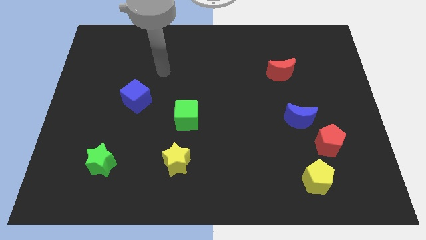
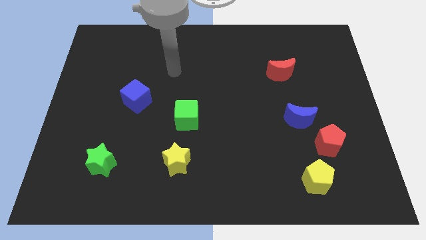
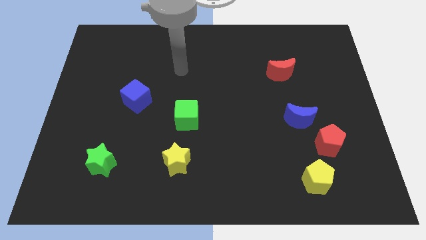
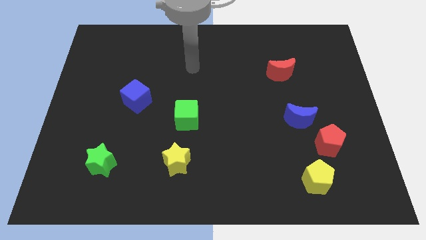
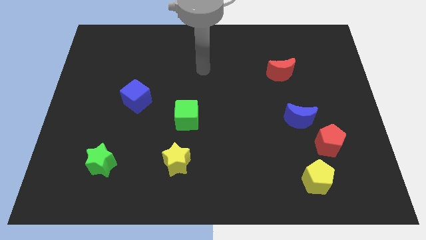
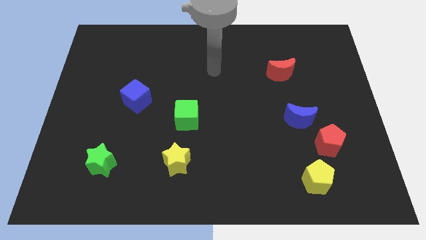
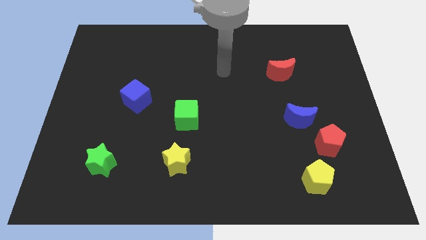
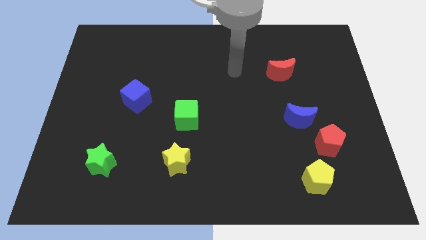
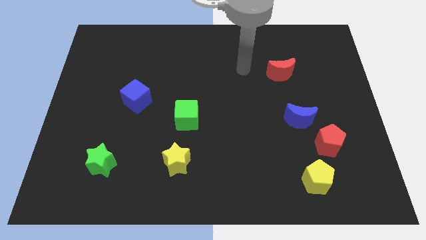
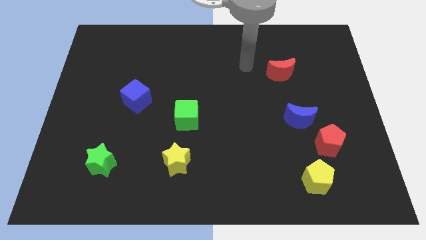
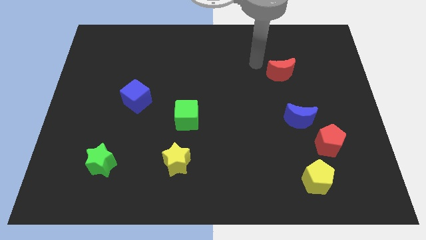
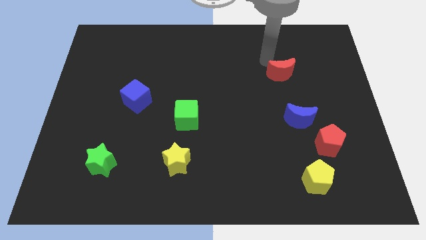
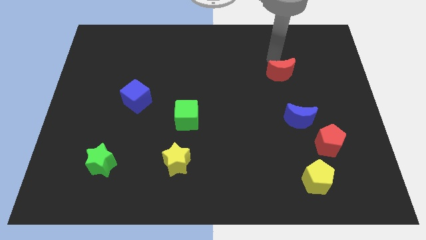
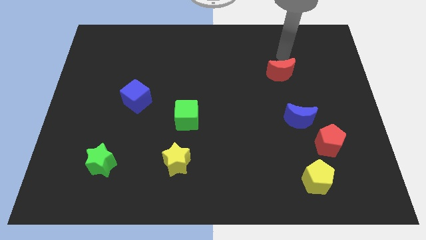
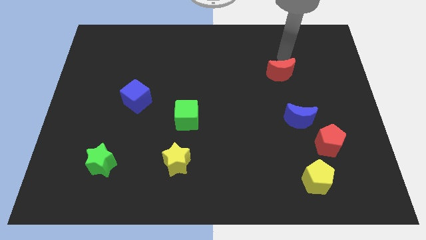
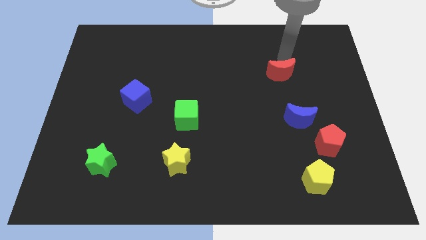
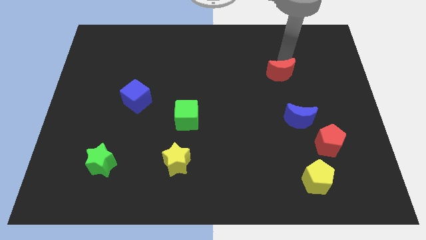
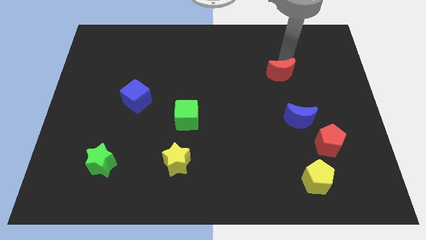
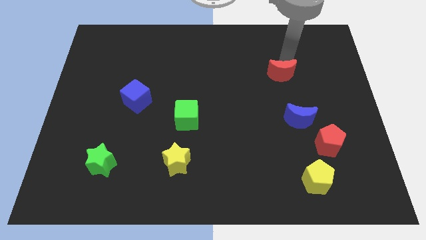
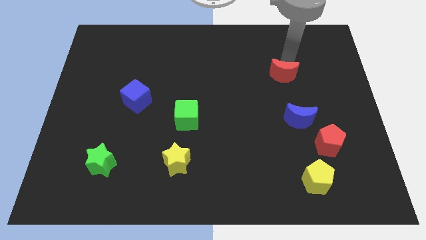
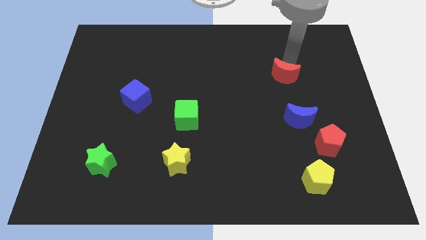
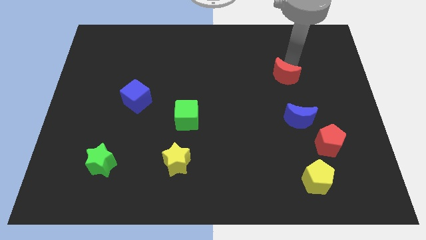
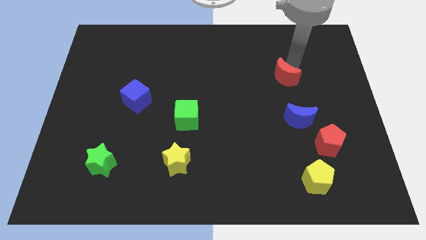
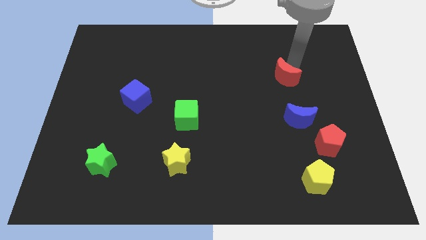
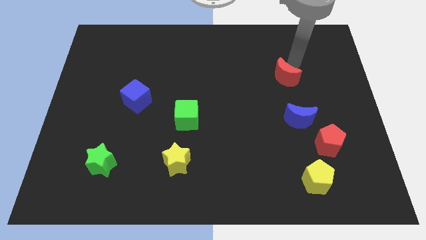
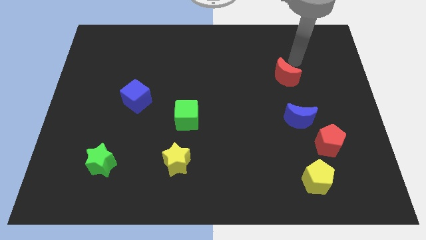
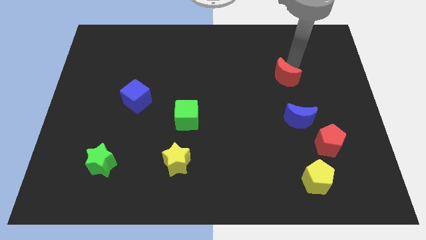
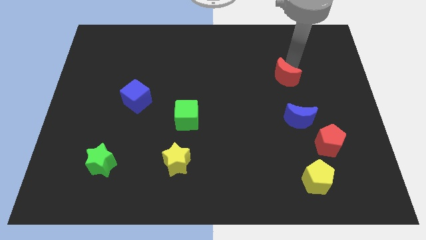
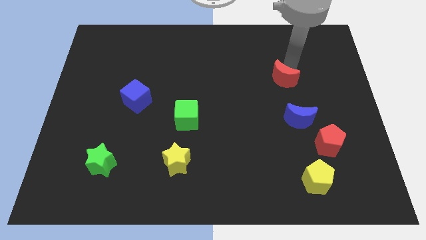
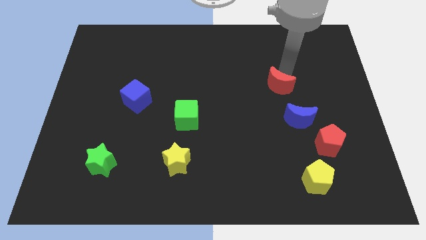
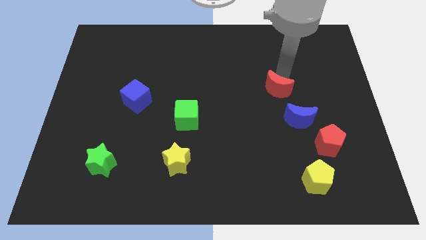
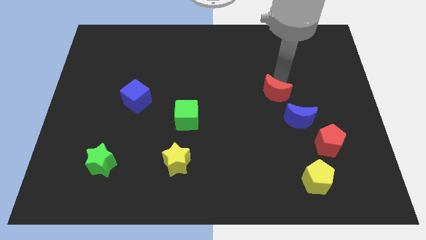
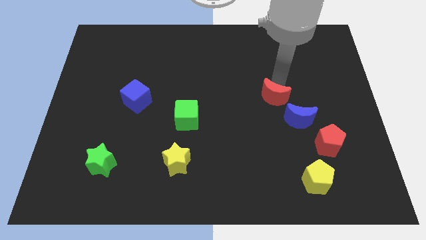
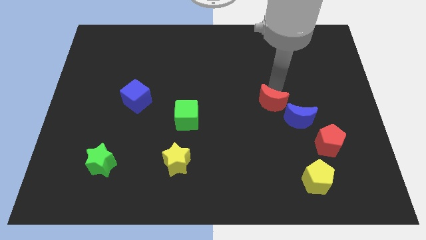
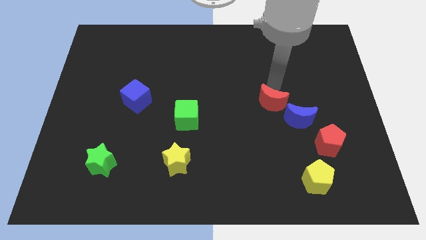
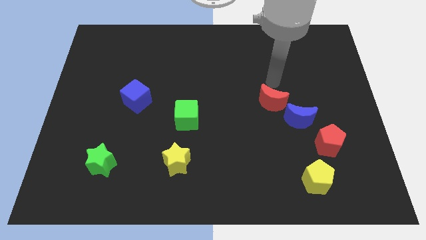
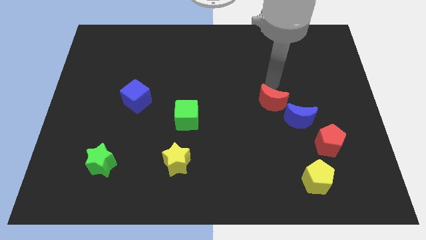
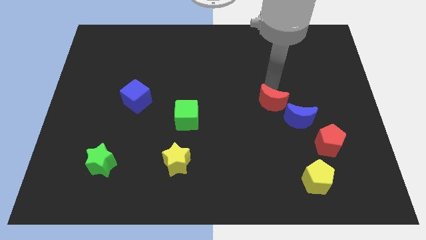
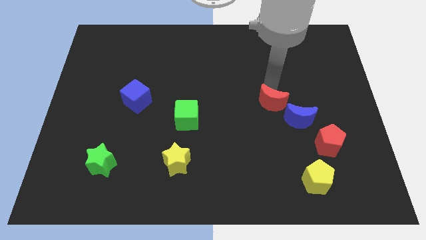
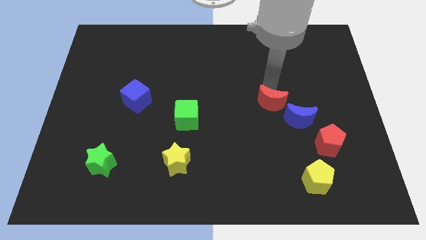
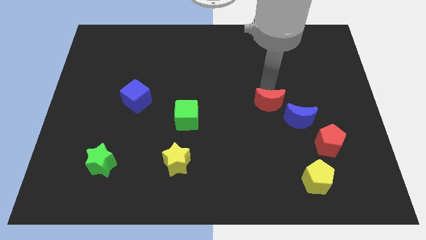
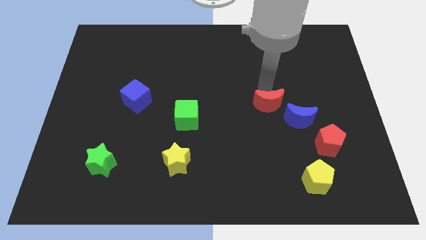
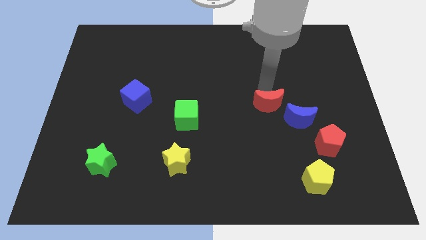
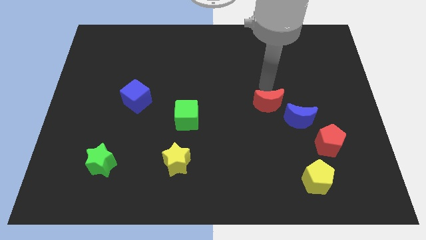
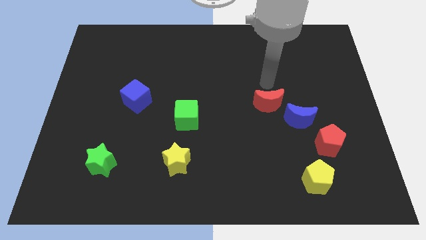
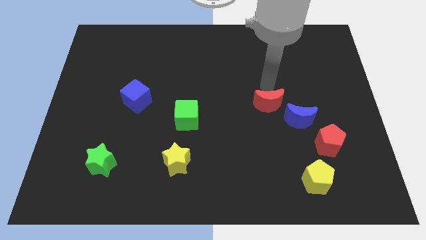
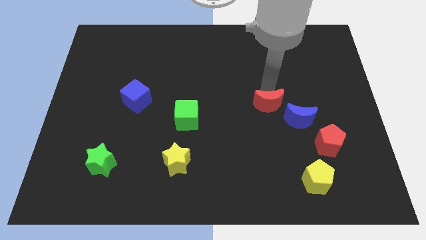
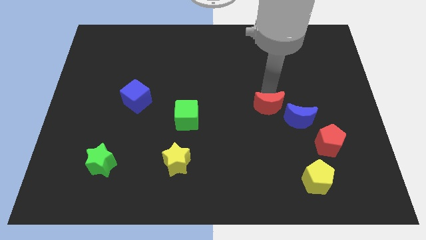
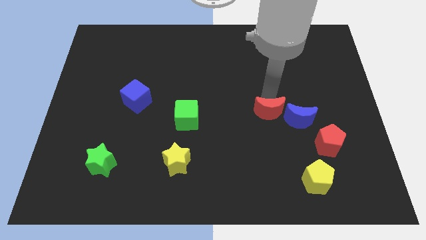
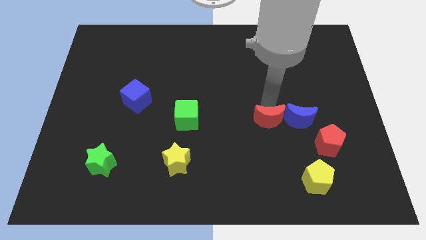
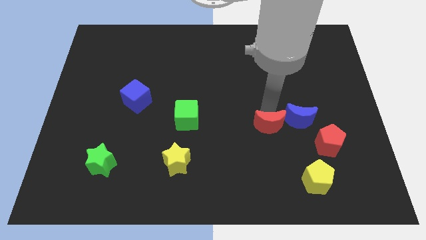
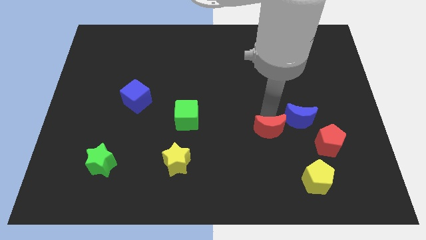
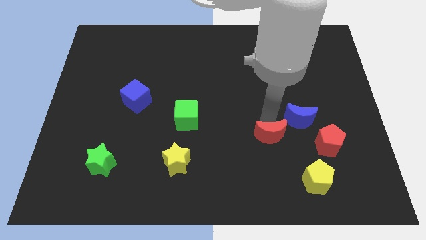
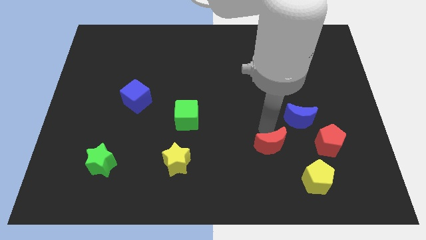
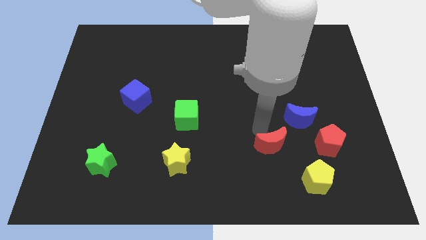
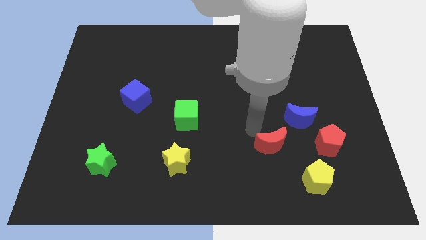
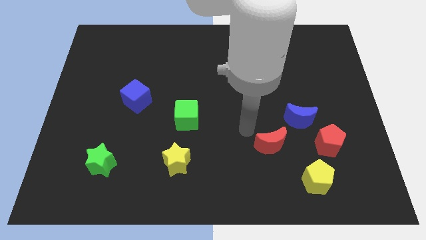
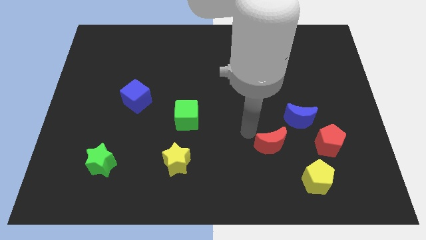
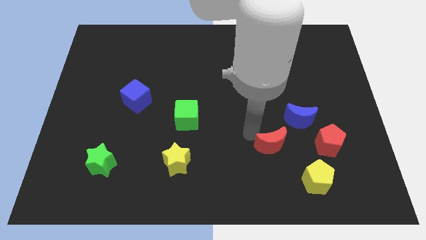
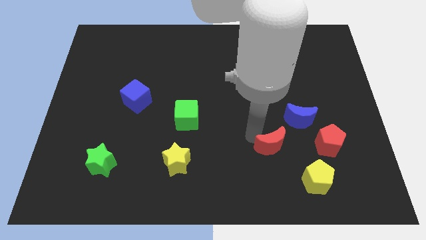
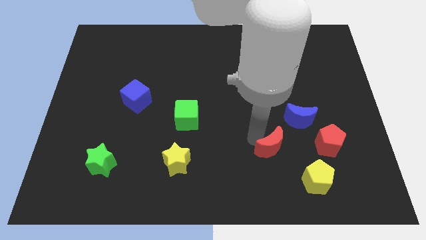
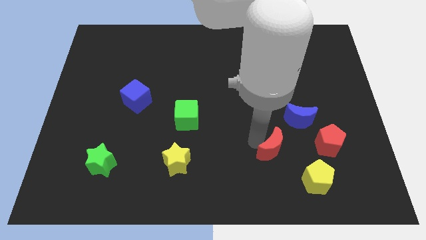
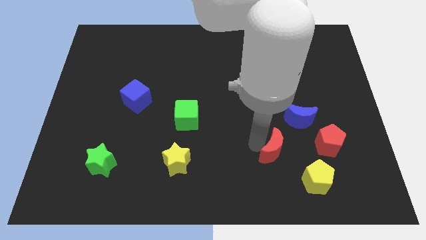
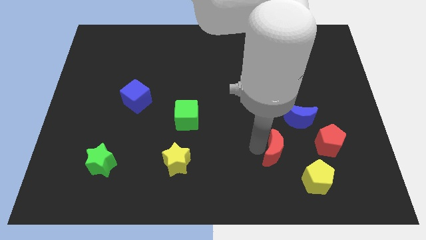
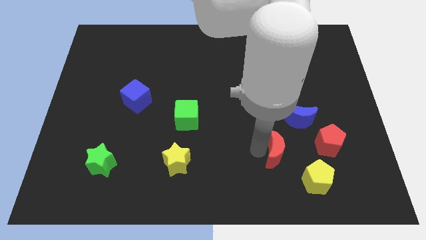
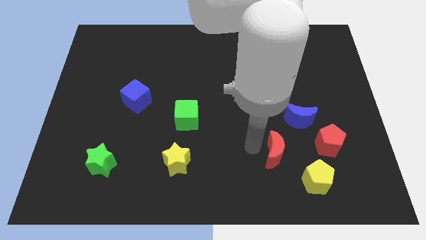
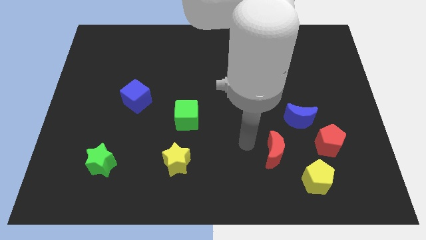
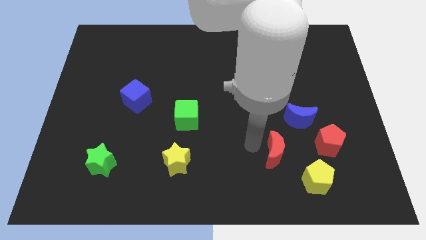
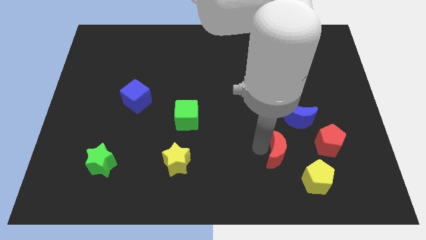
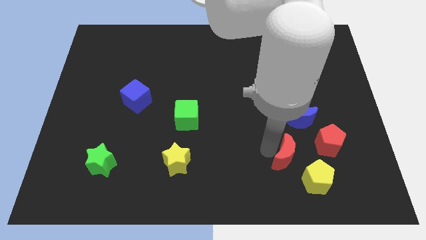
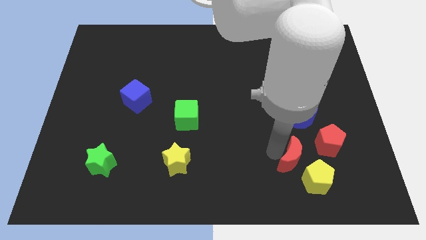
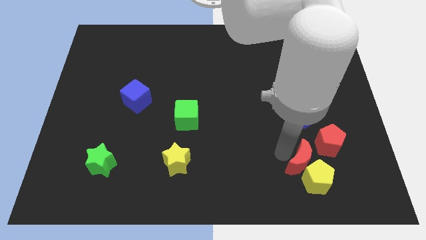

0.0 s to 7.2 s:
move the red moon towards the yellow pentagon
